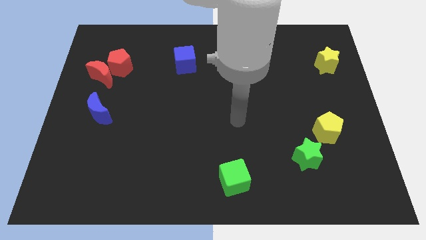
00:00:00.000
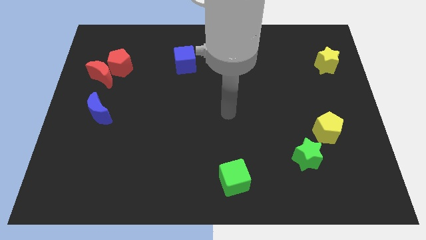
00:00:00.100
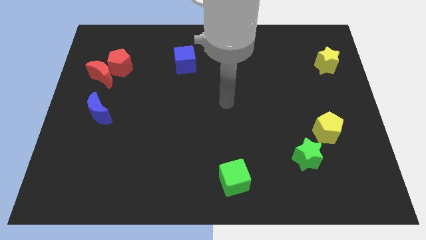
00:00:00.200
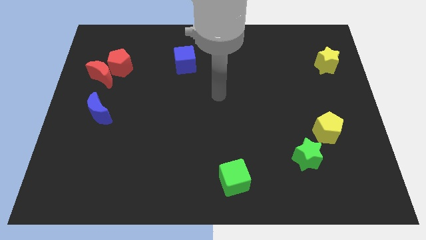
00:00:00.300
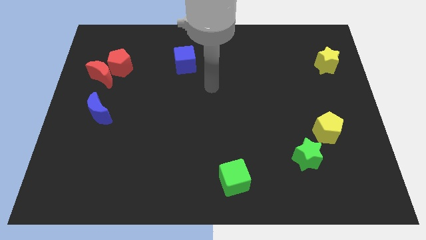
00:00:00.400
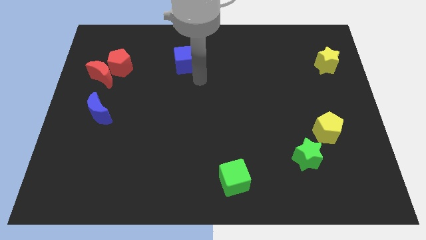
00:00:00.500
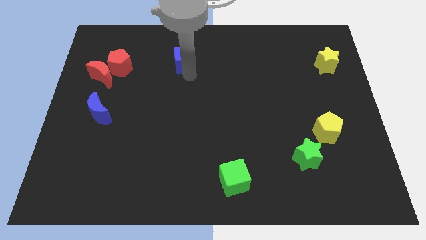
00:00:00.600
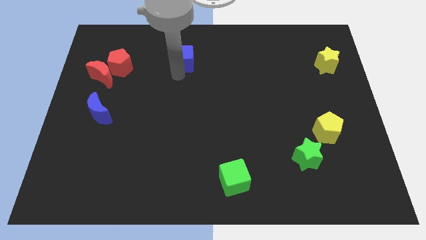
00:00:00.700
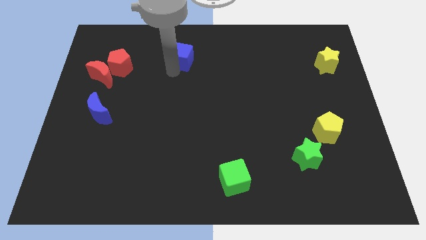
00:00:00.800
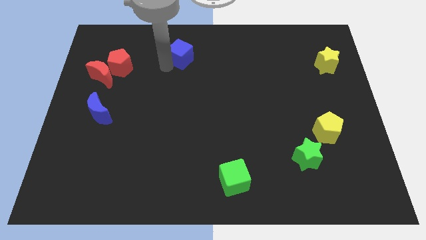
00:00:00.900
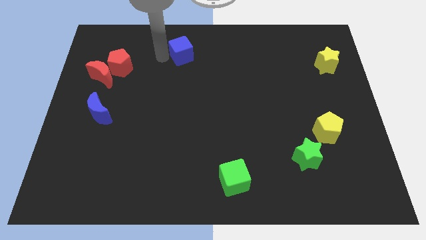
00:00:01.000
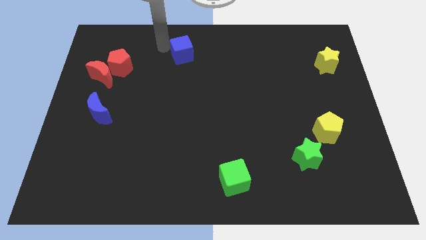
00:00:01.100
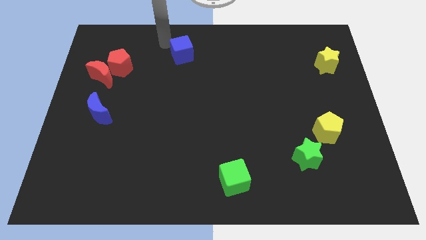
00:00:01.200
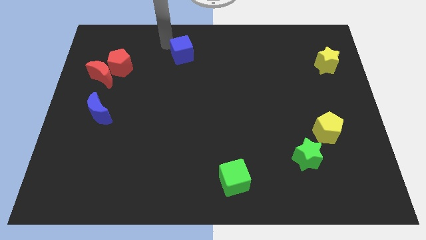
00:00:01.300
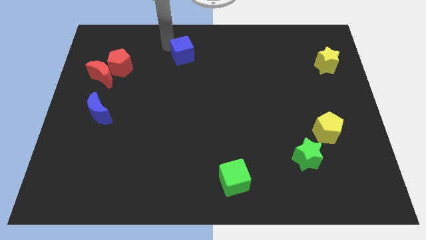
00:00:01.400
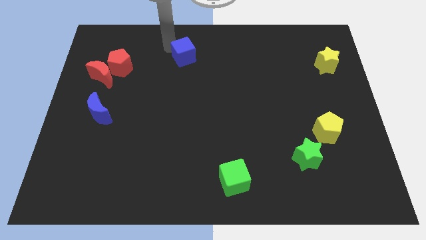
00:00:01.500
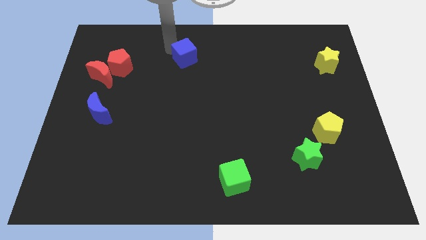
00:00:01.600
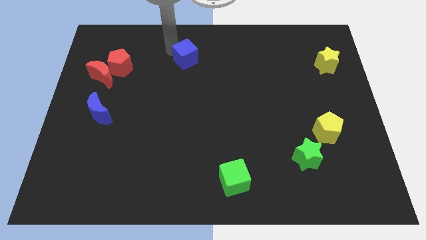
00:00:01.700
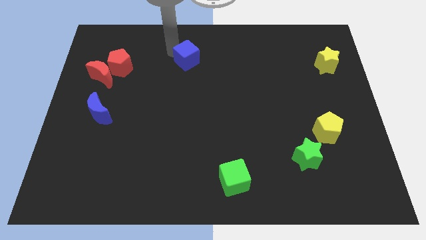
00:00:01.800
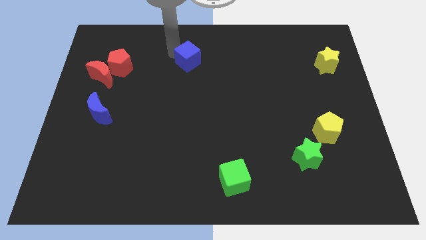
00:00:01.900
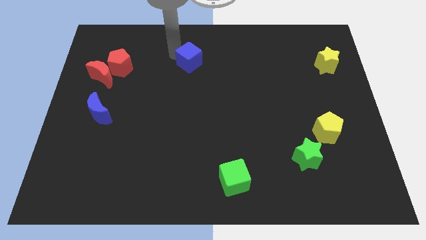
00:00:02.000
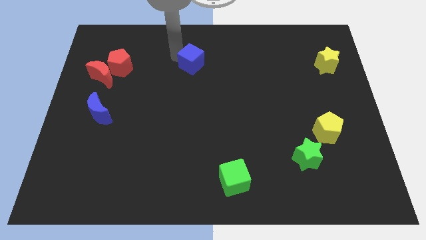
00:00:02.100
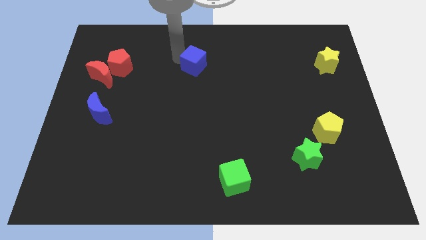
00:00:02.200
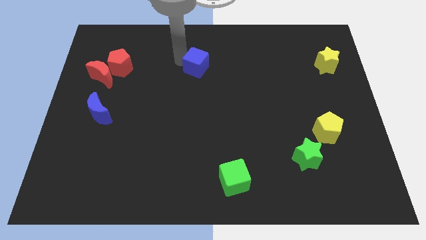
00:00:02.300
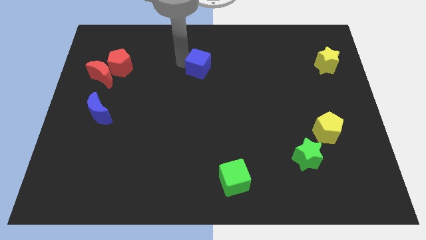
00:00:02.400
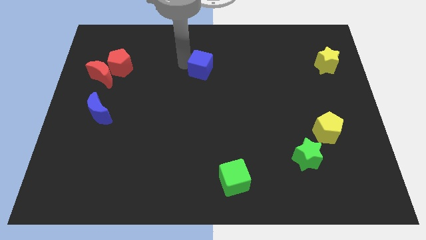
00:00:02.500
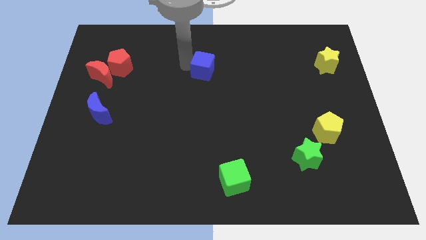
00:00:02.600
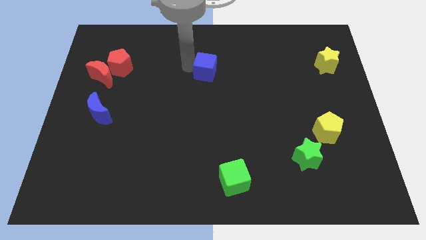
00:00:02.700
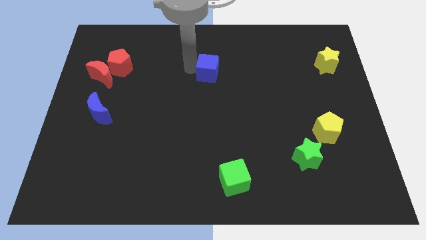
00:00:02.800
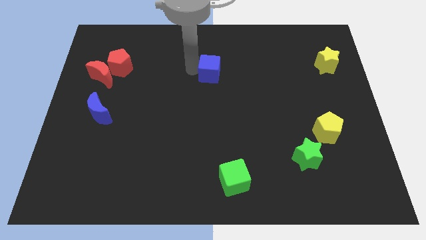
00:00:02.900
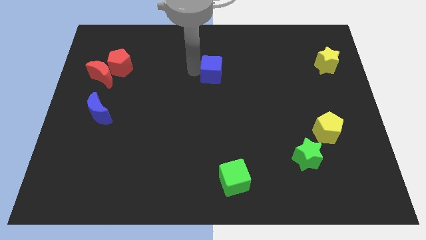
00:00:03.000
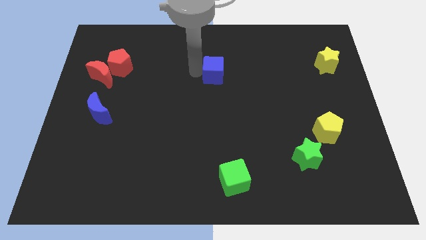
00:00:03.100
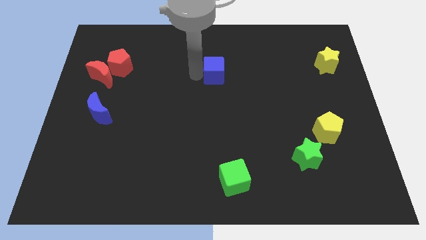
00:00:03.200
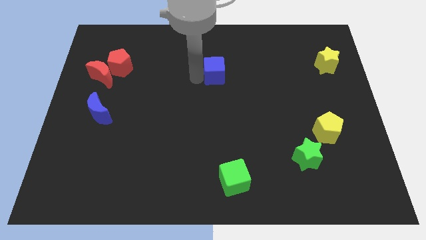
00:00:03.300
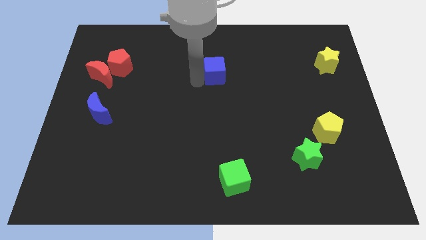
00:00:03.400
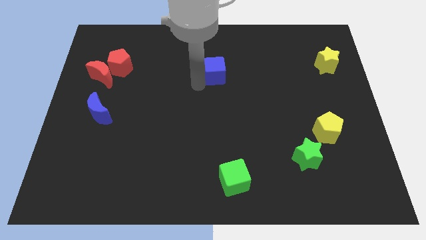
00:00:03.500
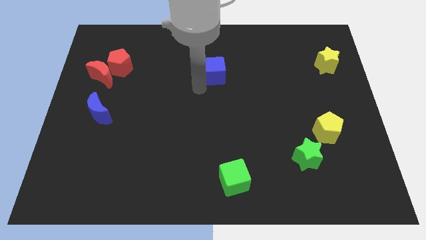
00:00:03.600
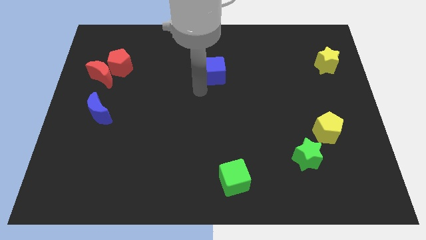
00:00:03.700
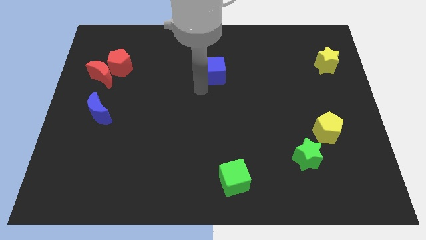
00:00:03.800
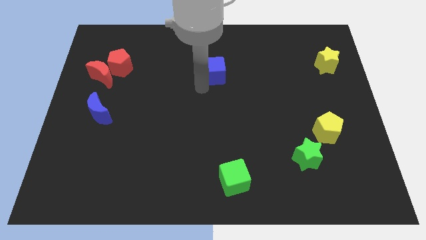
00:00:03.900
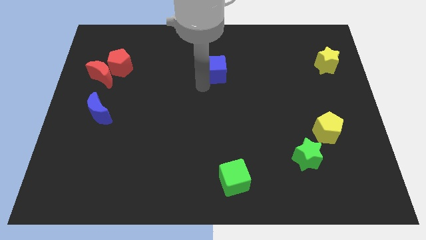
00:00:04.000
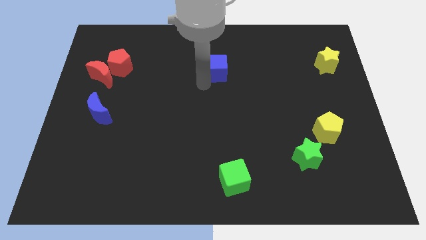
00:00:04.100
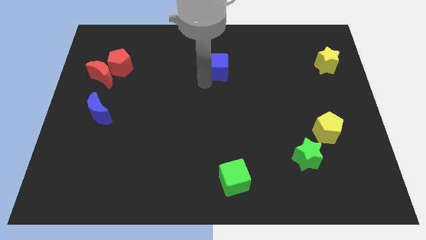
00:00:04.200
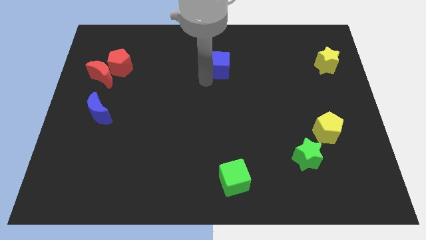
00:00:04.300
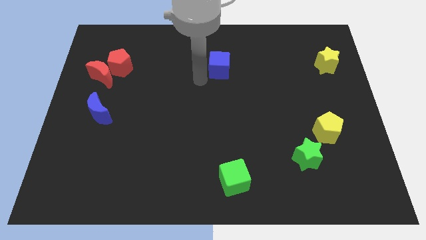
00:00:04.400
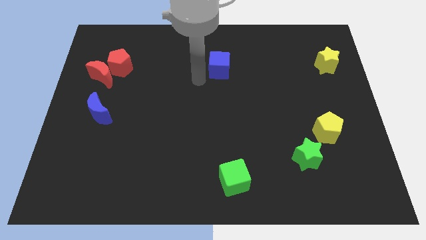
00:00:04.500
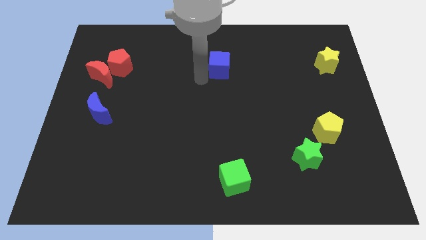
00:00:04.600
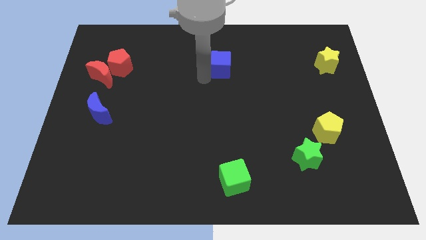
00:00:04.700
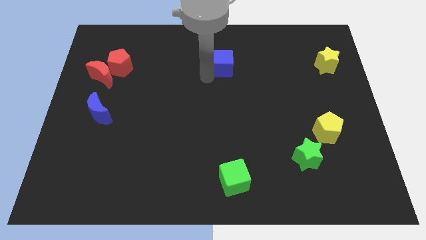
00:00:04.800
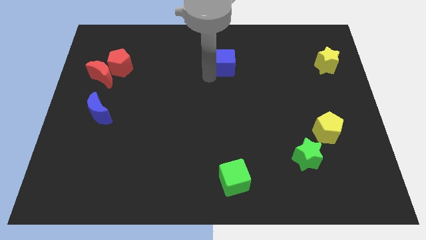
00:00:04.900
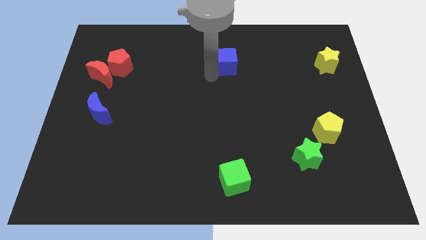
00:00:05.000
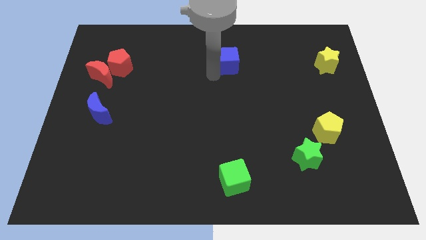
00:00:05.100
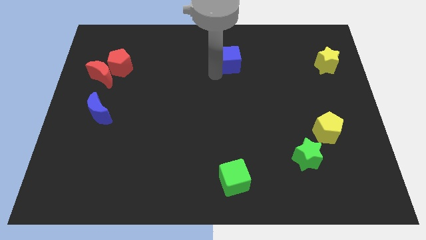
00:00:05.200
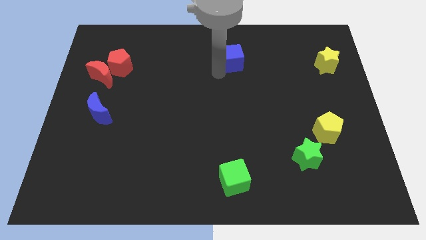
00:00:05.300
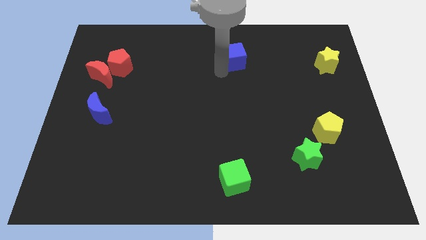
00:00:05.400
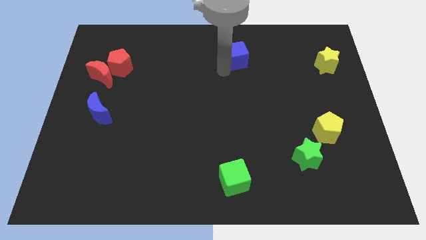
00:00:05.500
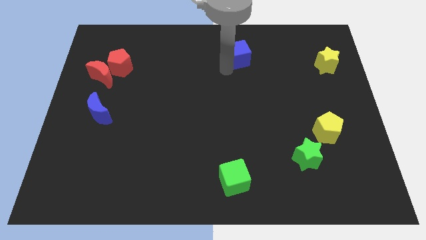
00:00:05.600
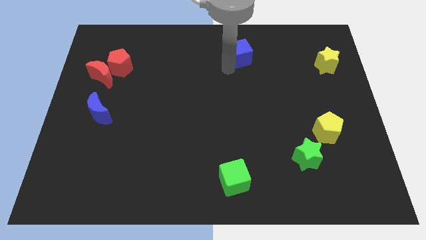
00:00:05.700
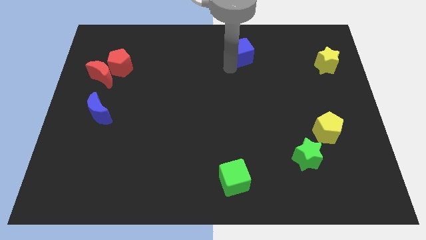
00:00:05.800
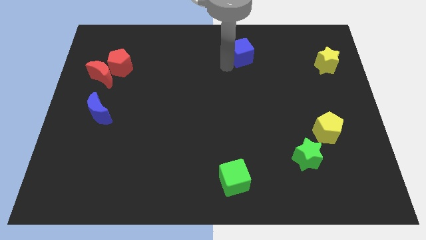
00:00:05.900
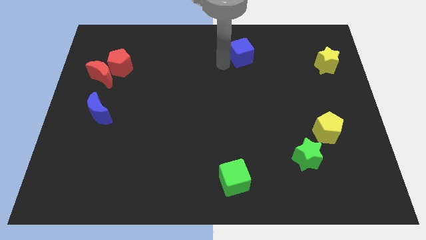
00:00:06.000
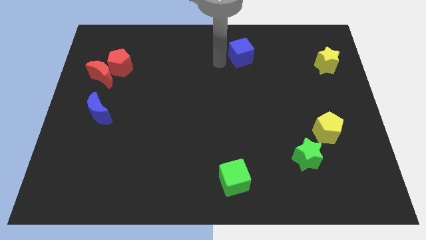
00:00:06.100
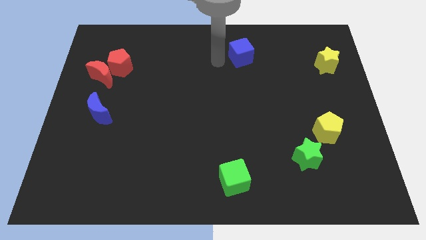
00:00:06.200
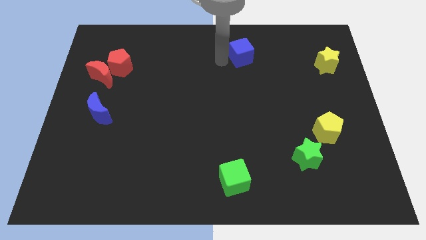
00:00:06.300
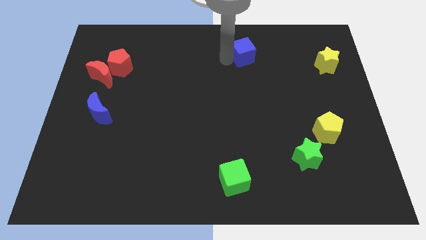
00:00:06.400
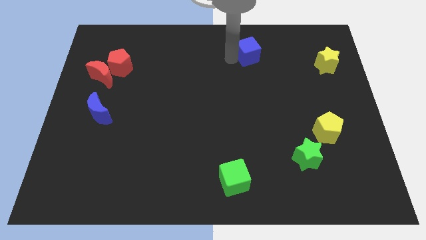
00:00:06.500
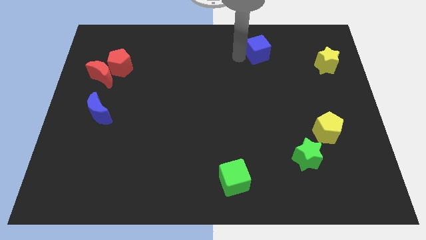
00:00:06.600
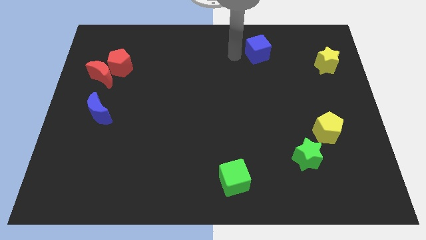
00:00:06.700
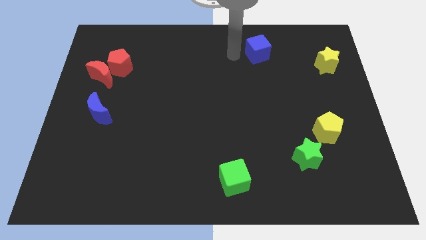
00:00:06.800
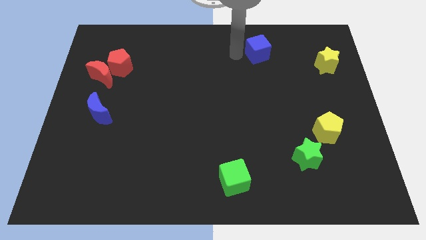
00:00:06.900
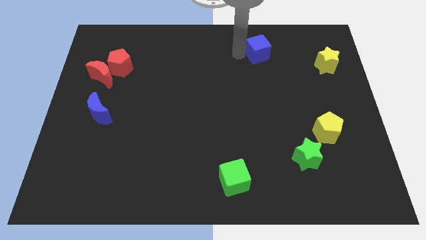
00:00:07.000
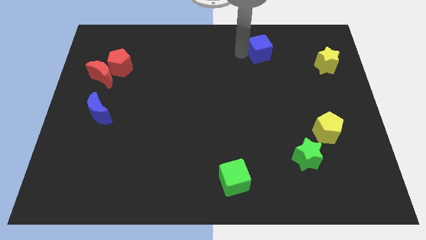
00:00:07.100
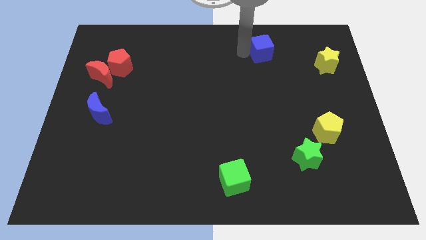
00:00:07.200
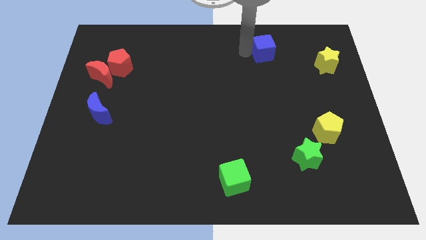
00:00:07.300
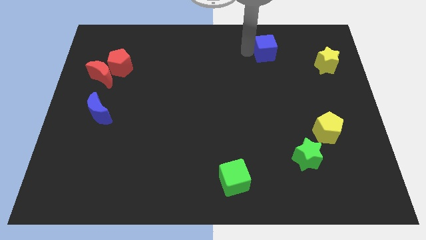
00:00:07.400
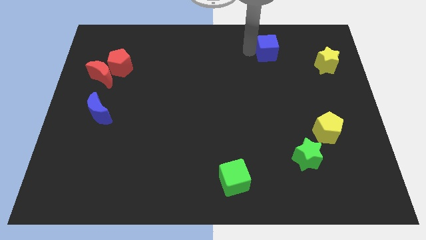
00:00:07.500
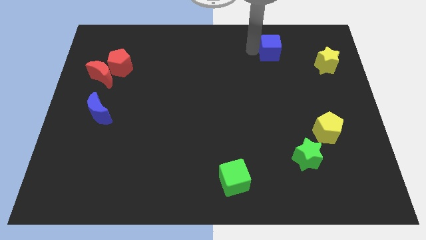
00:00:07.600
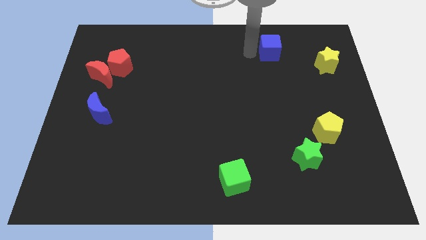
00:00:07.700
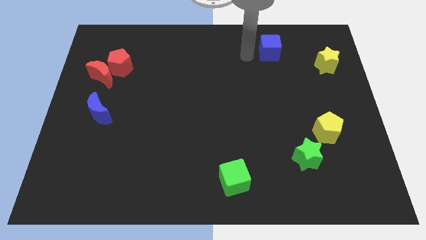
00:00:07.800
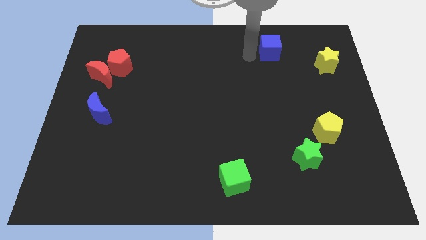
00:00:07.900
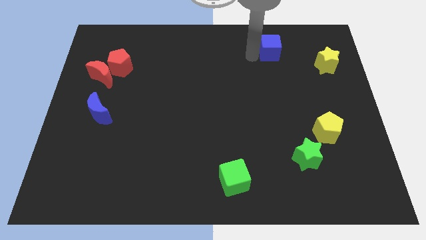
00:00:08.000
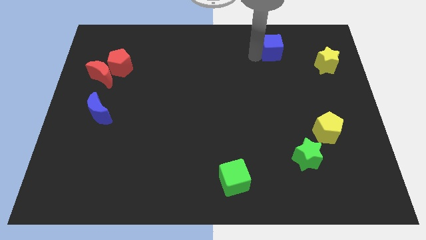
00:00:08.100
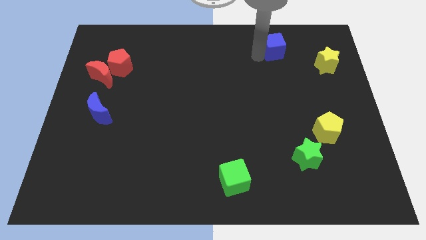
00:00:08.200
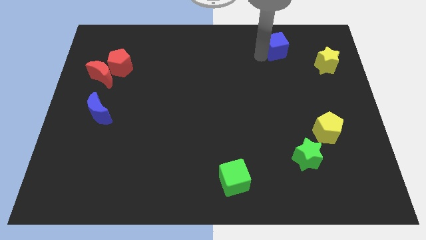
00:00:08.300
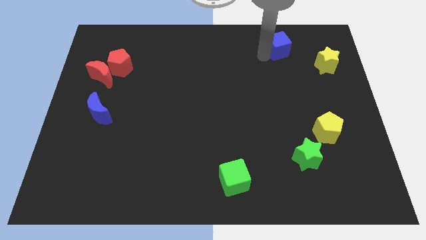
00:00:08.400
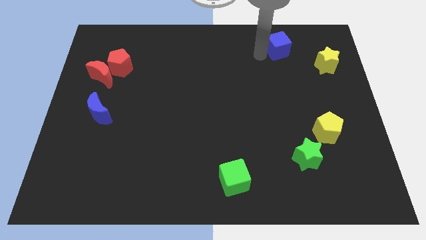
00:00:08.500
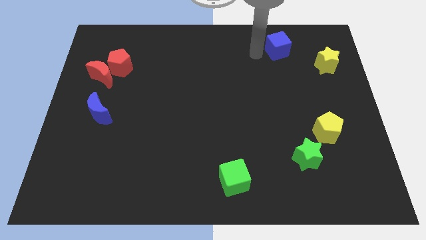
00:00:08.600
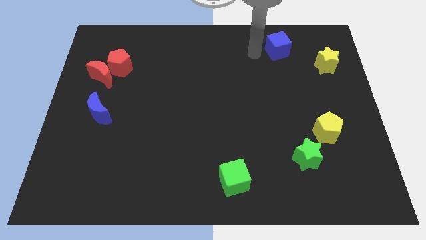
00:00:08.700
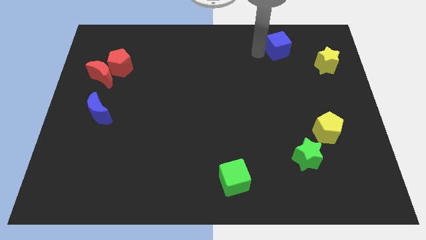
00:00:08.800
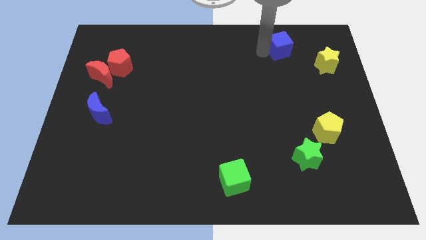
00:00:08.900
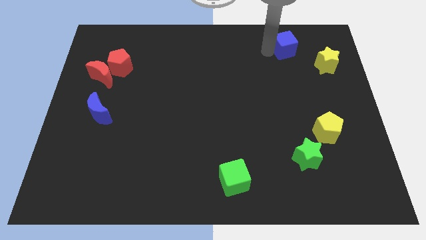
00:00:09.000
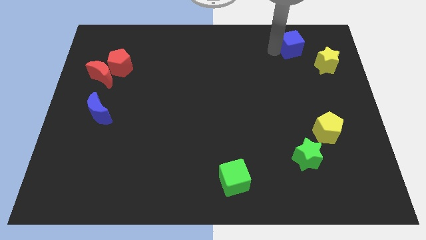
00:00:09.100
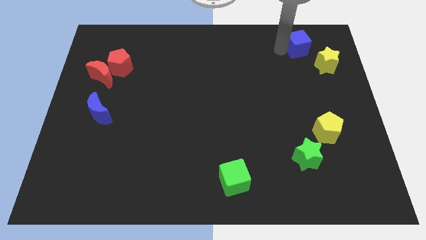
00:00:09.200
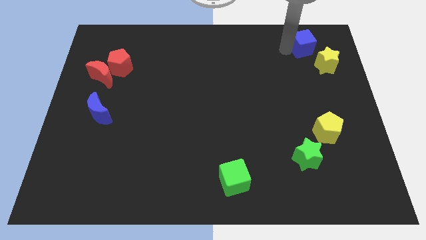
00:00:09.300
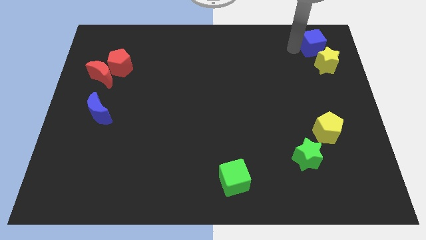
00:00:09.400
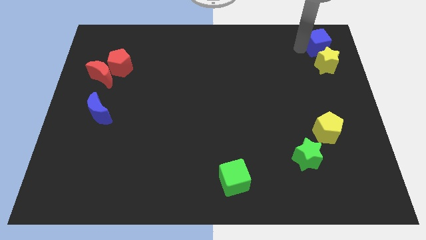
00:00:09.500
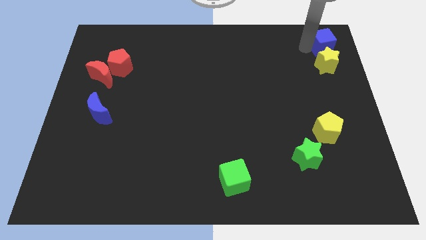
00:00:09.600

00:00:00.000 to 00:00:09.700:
push the blue cube to the top right of the board
